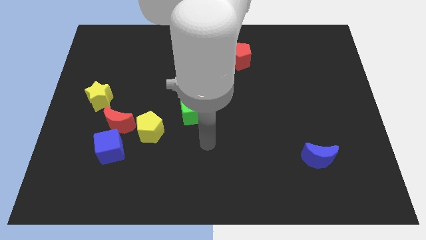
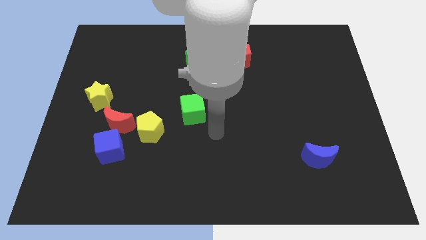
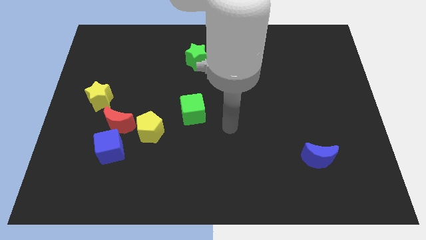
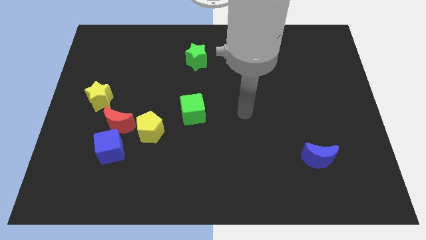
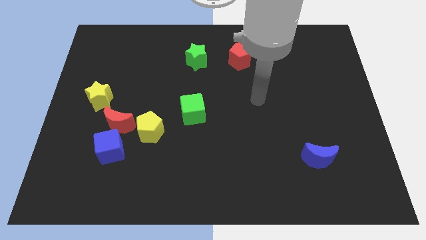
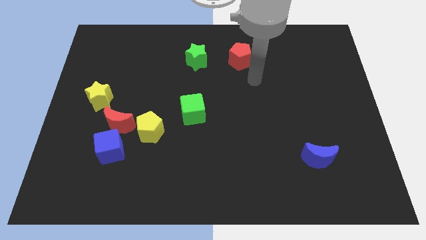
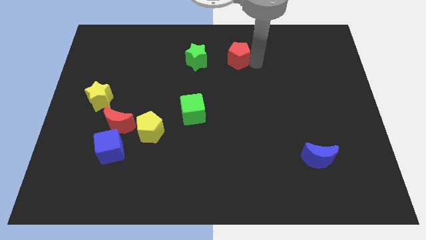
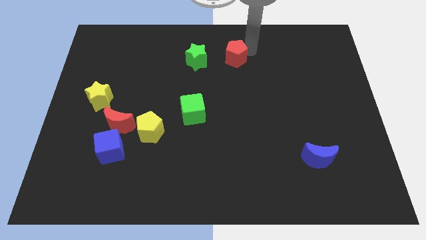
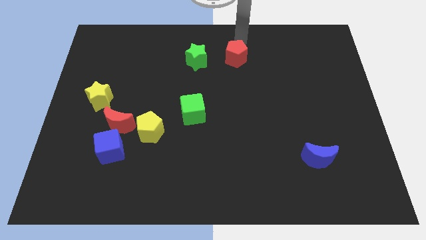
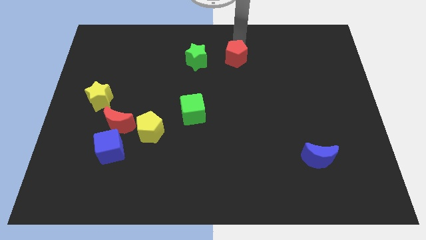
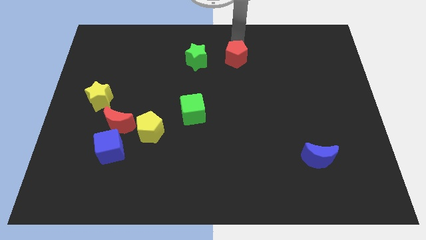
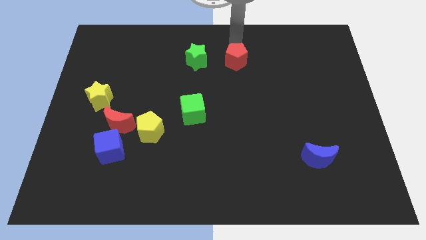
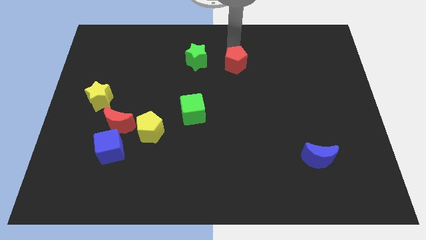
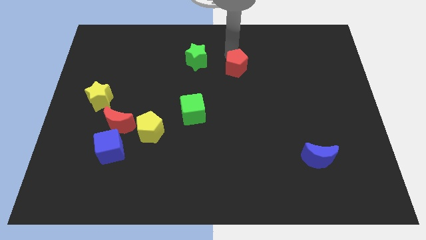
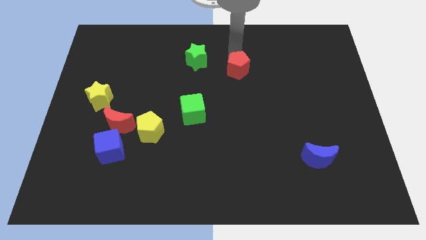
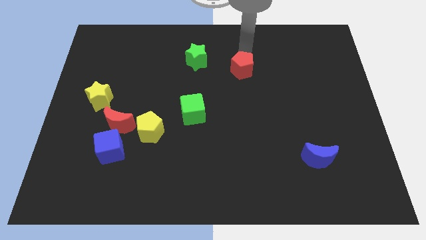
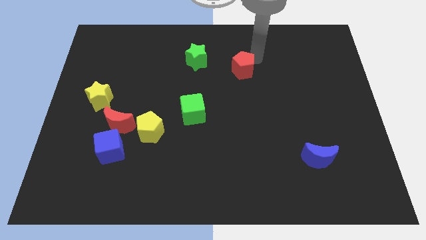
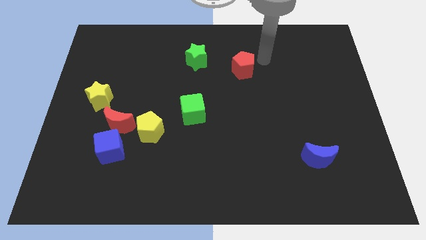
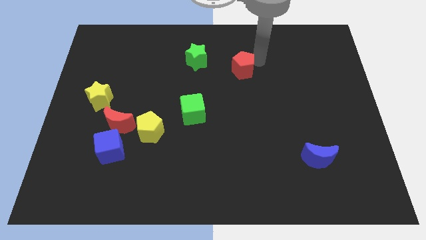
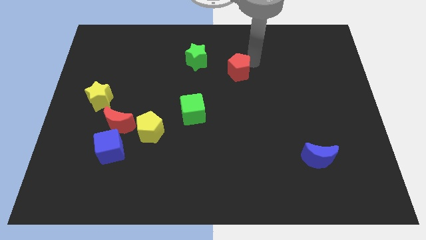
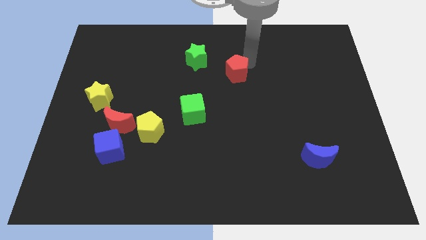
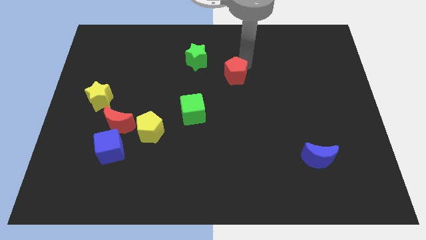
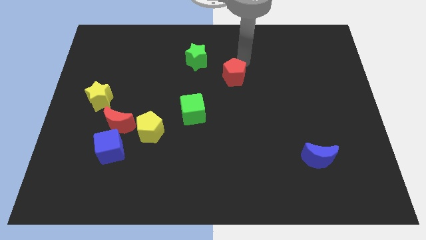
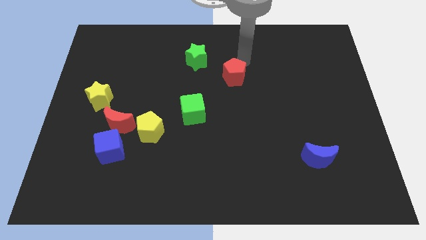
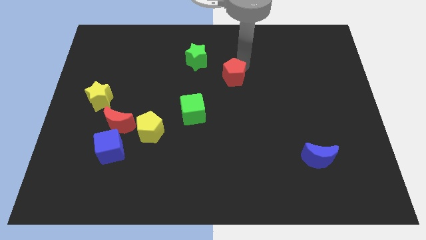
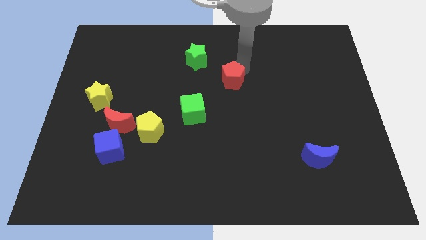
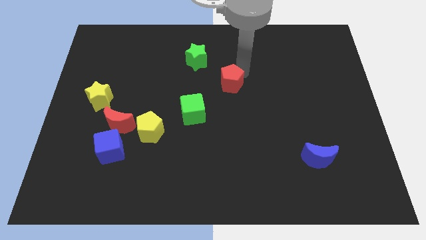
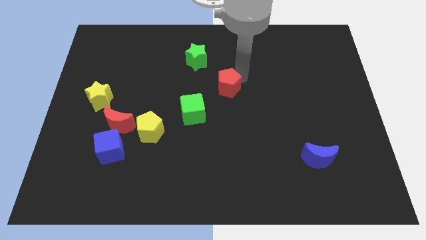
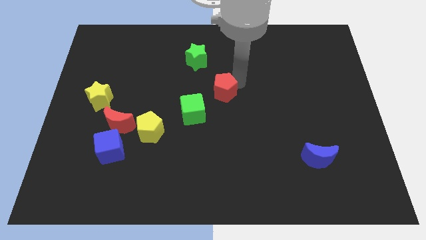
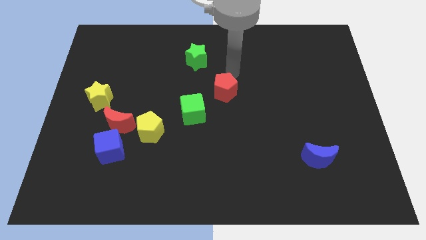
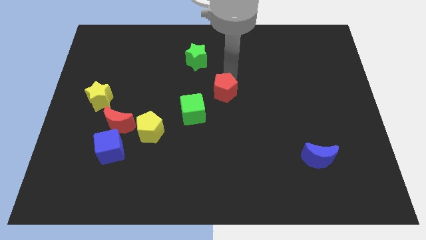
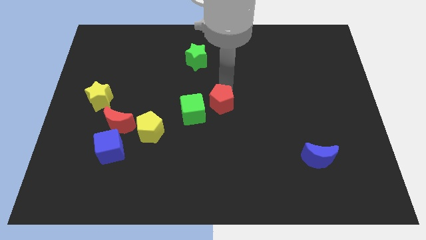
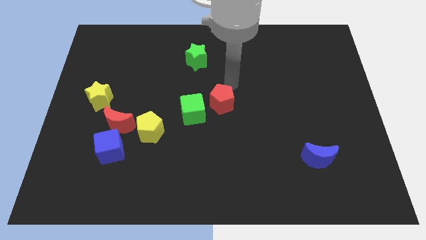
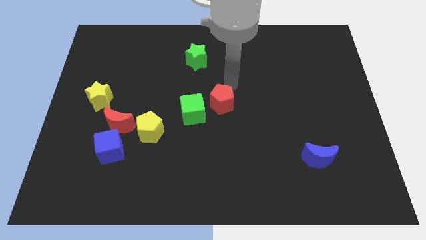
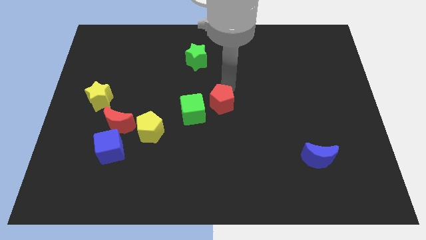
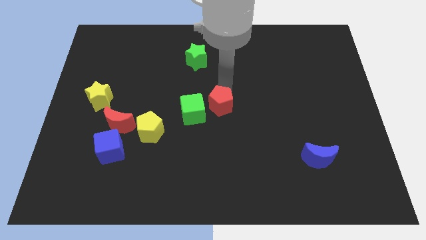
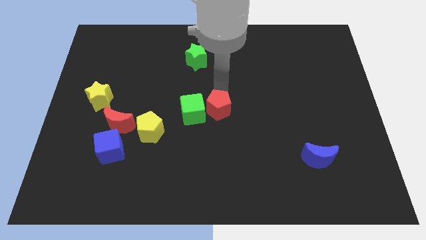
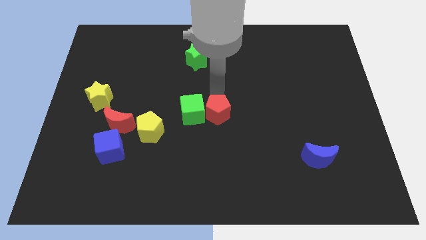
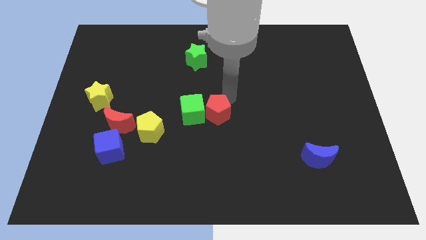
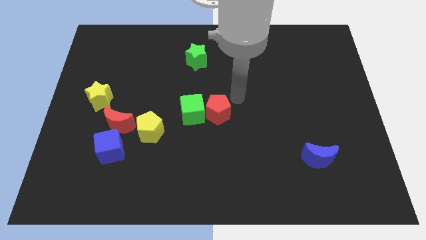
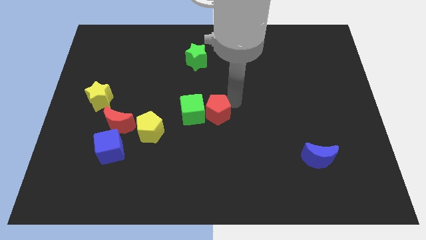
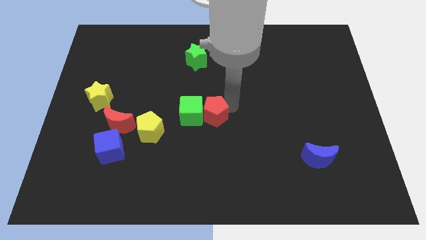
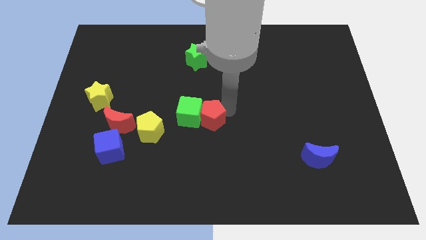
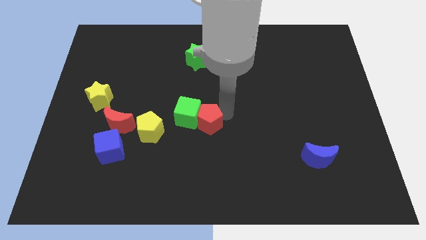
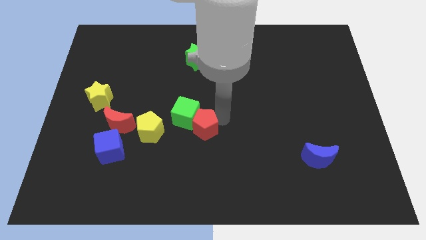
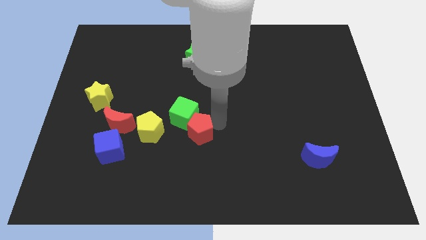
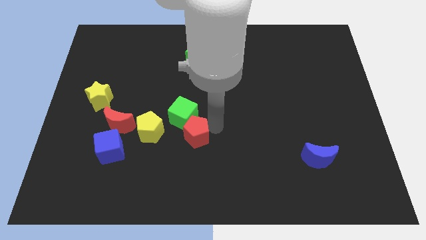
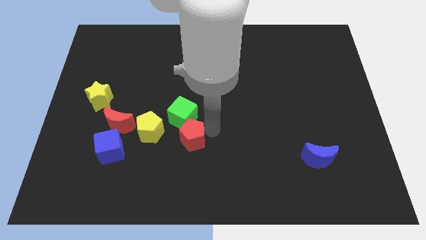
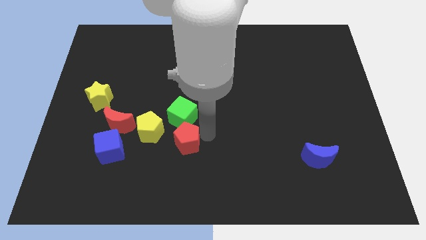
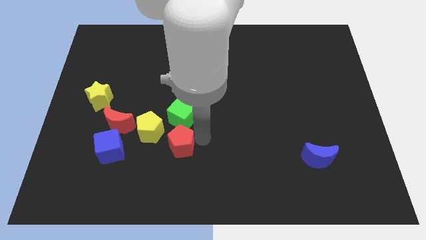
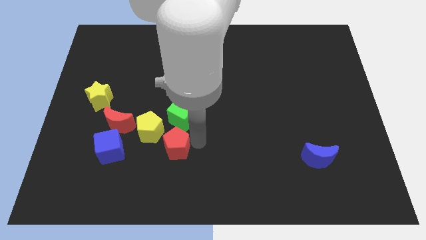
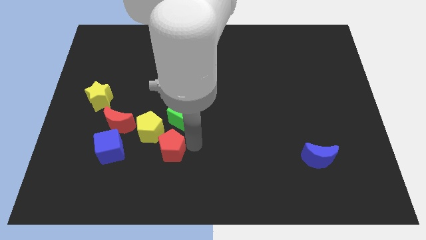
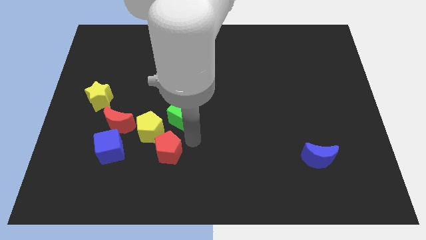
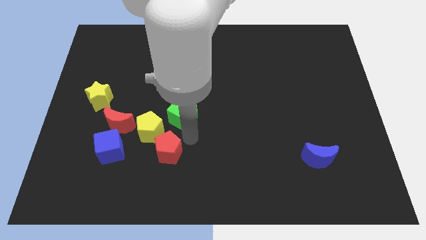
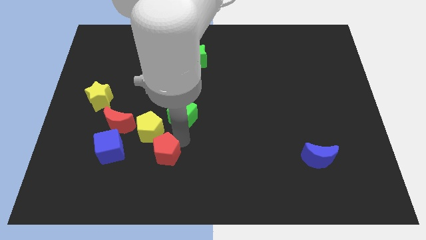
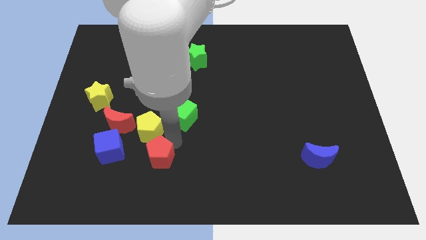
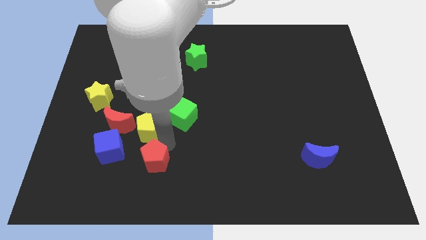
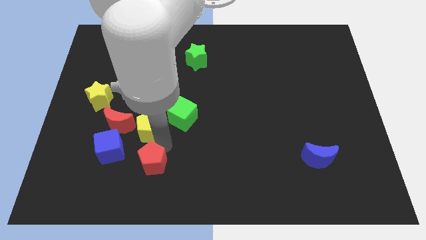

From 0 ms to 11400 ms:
move the red pentagon diagonally down and to the right of the blue cube

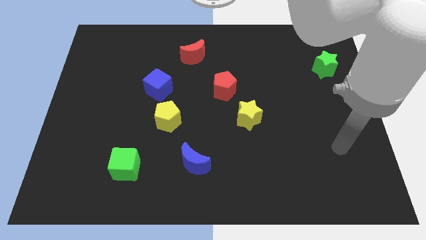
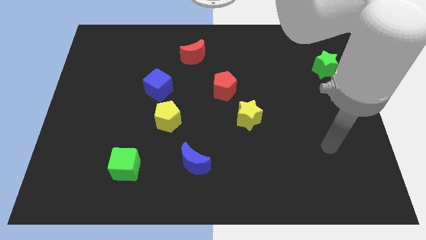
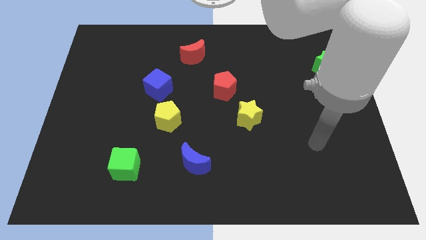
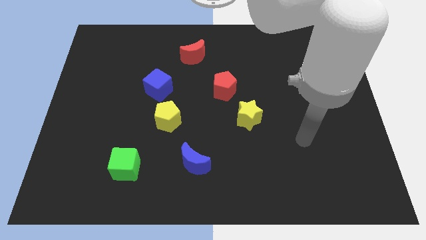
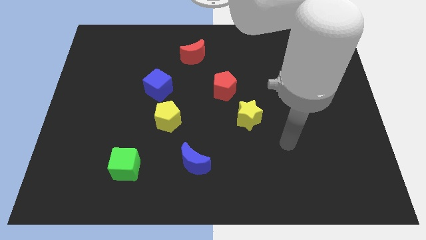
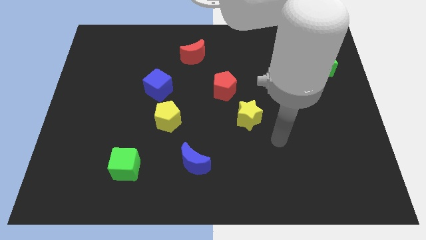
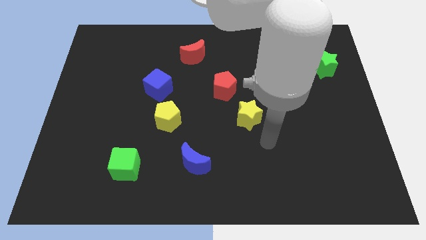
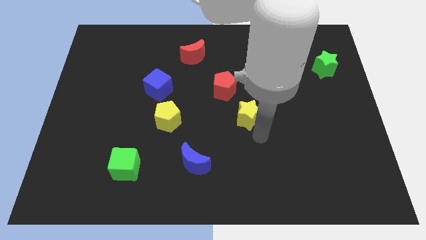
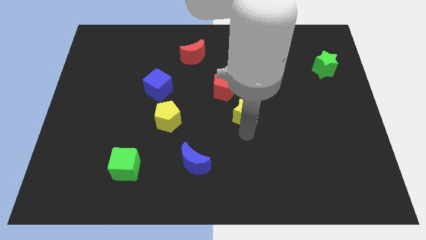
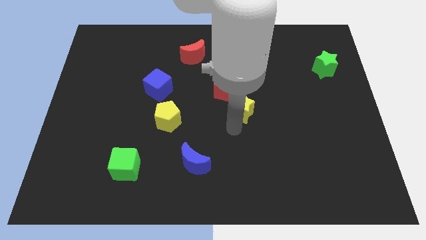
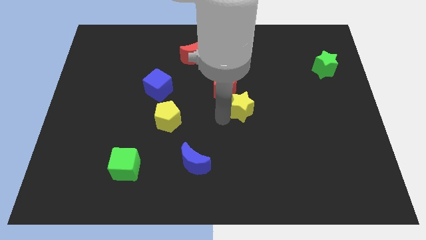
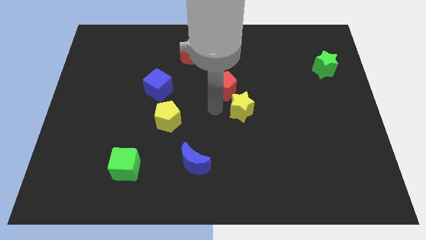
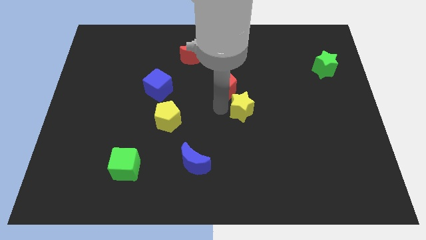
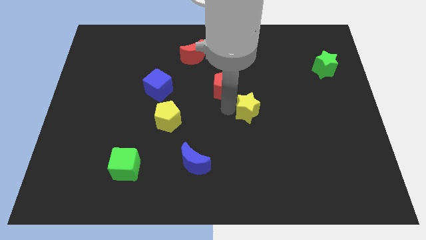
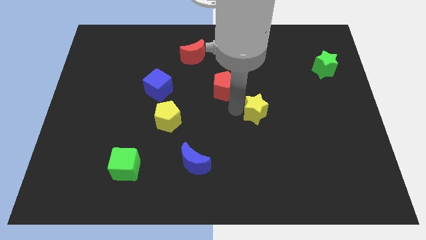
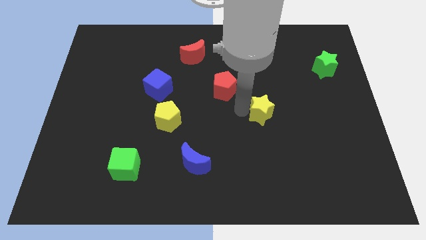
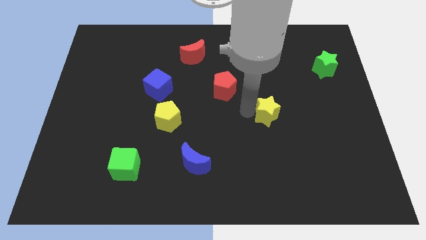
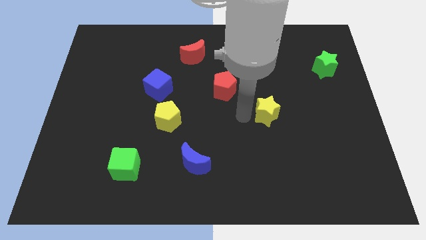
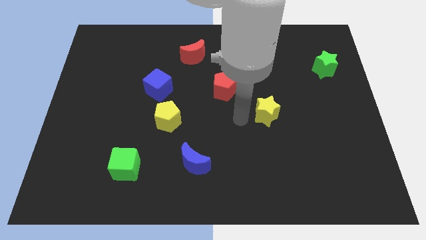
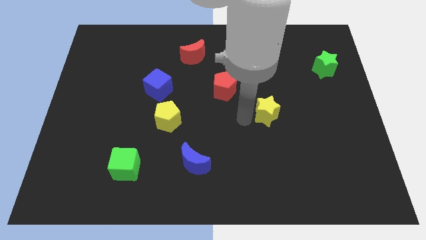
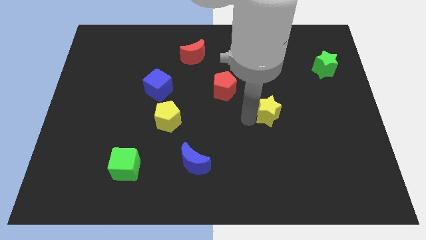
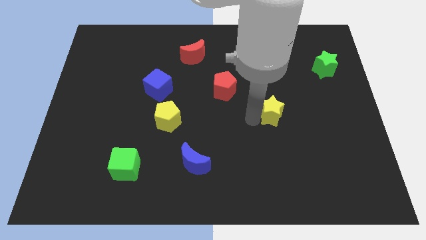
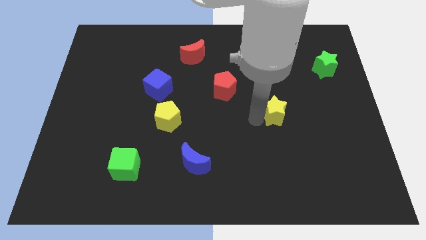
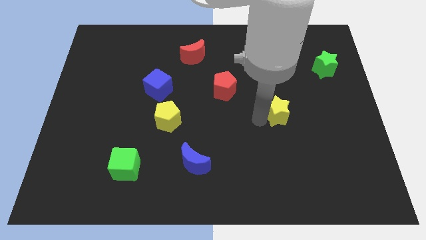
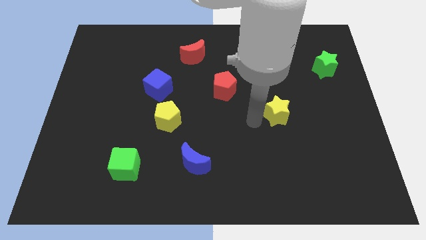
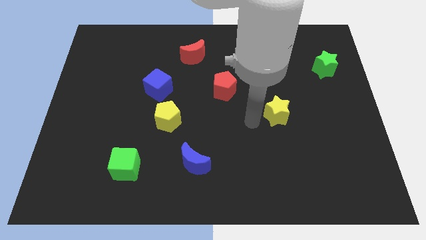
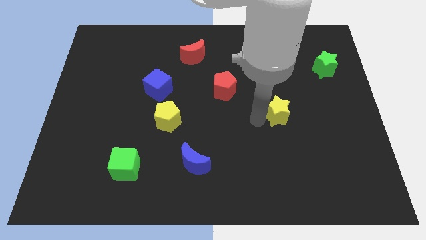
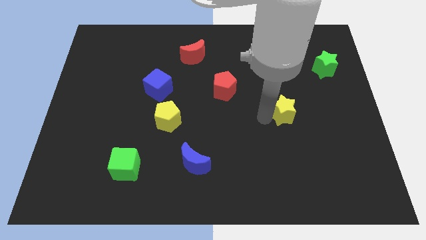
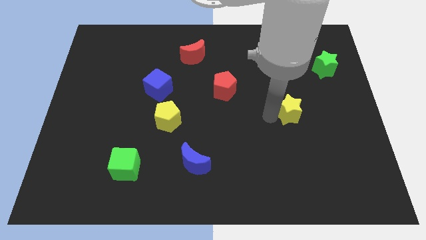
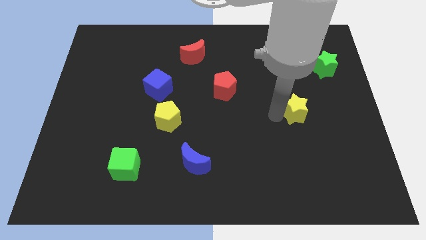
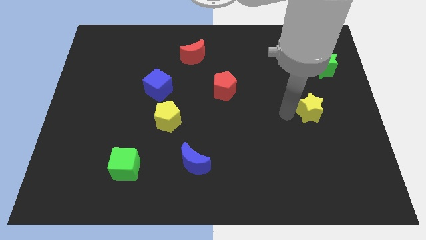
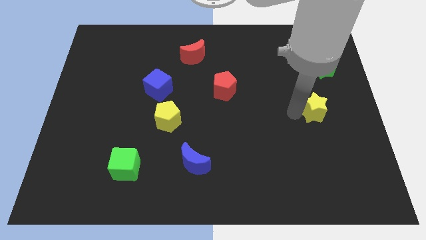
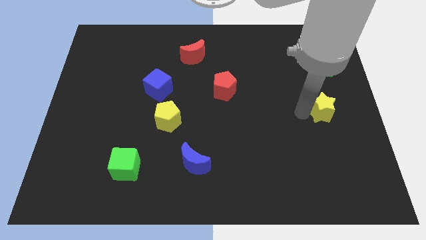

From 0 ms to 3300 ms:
push the yellow star below the green star
